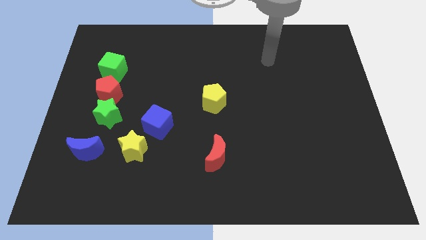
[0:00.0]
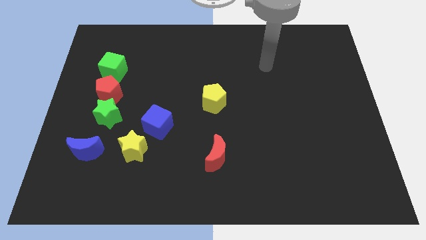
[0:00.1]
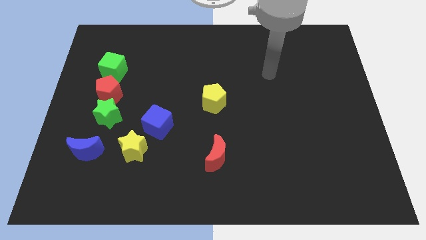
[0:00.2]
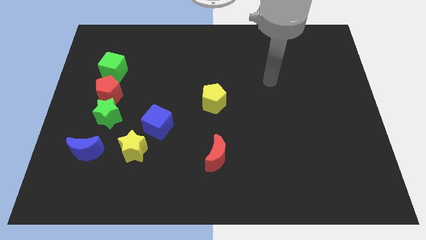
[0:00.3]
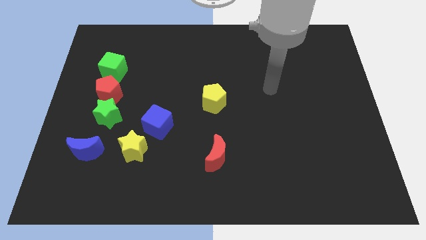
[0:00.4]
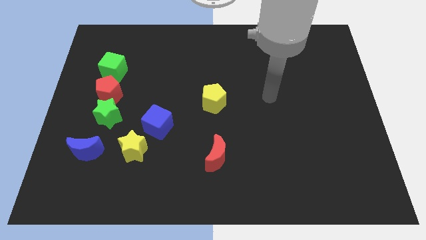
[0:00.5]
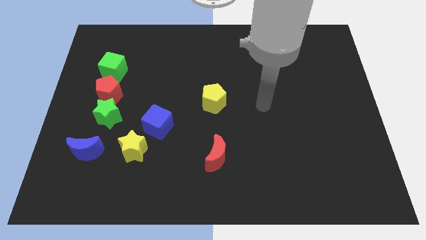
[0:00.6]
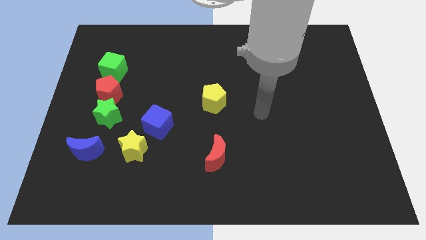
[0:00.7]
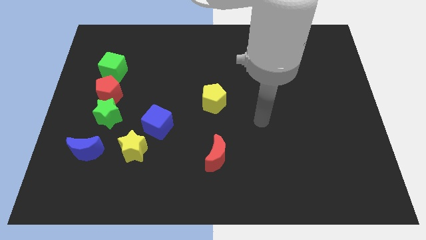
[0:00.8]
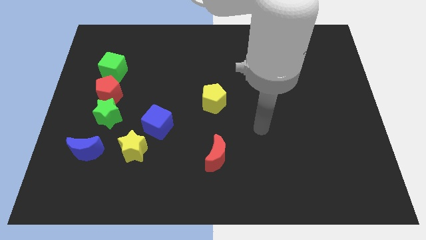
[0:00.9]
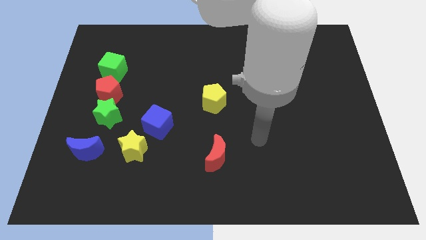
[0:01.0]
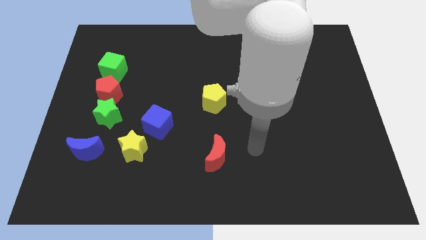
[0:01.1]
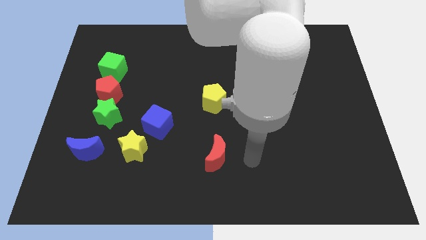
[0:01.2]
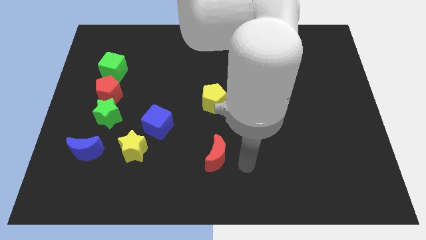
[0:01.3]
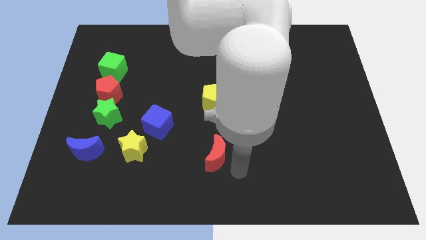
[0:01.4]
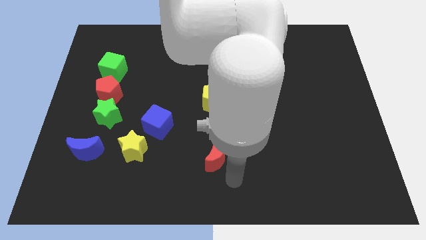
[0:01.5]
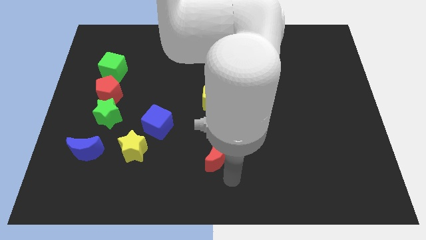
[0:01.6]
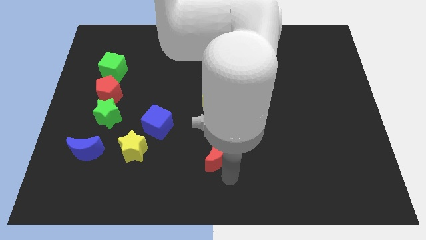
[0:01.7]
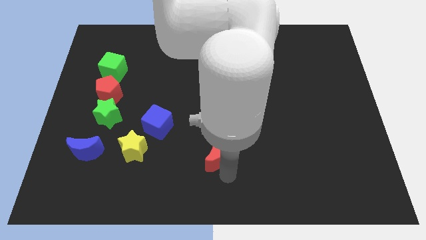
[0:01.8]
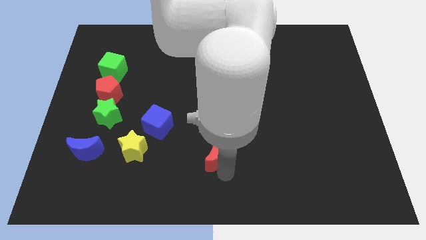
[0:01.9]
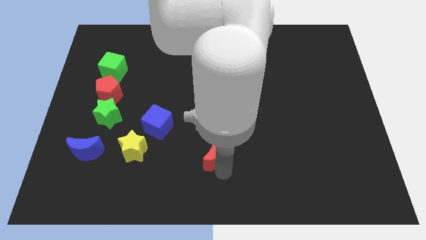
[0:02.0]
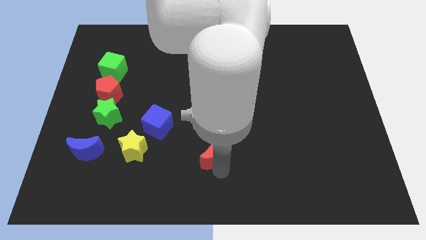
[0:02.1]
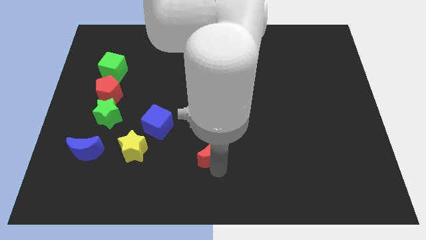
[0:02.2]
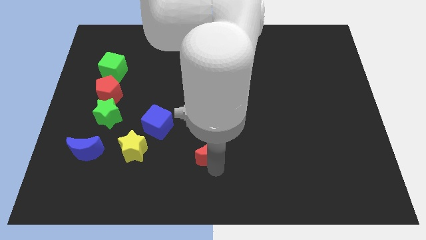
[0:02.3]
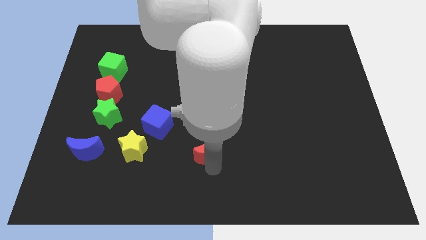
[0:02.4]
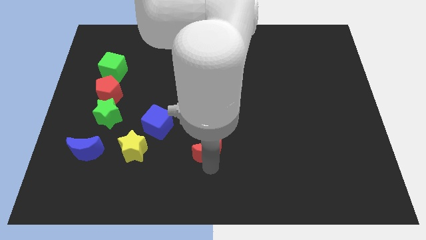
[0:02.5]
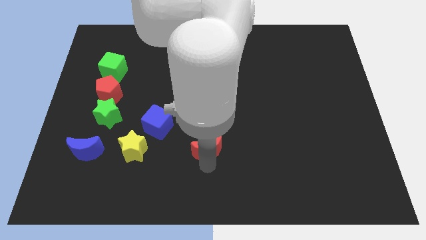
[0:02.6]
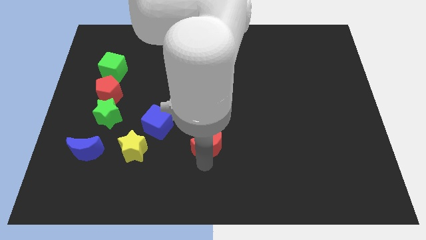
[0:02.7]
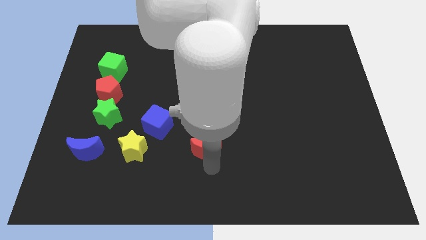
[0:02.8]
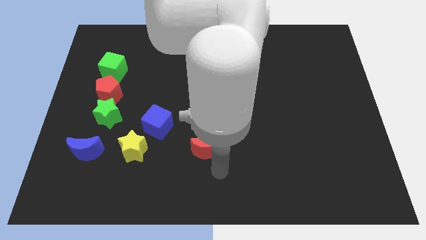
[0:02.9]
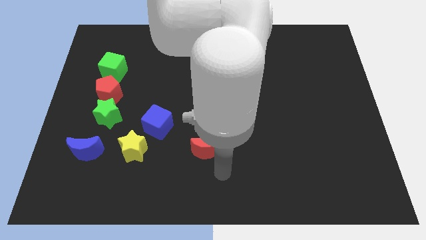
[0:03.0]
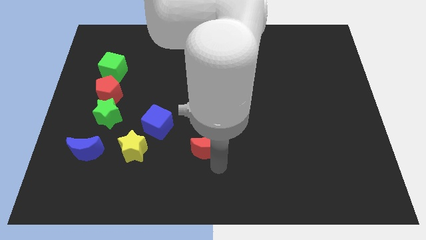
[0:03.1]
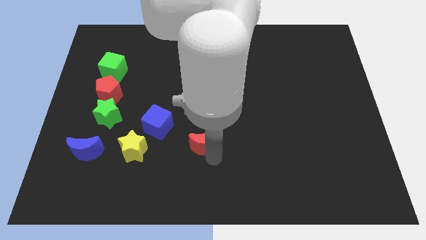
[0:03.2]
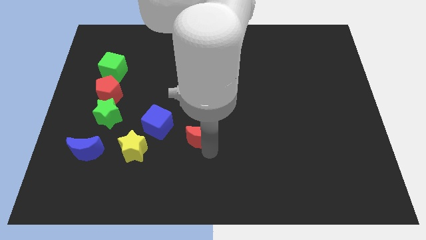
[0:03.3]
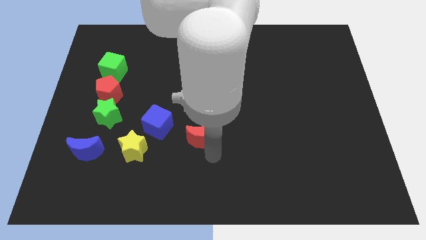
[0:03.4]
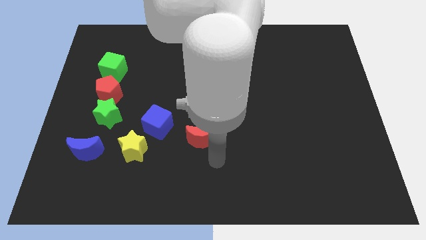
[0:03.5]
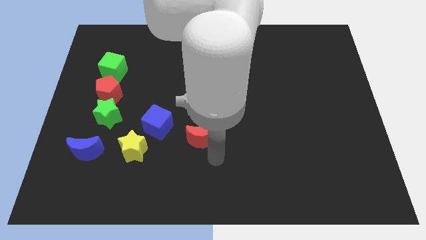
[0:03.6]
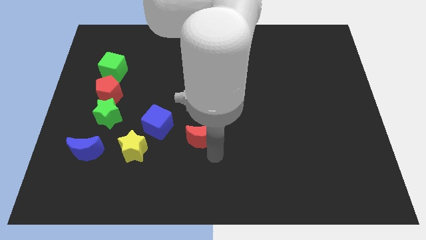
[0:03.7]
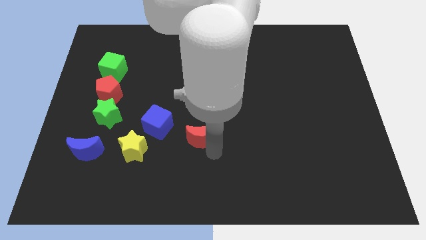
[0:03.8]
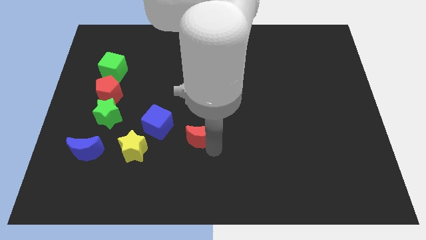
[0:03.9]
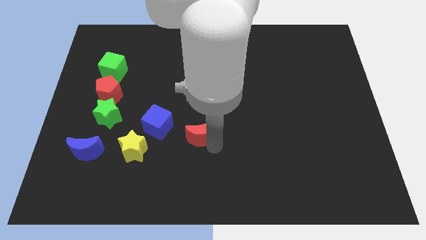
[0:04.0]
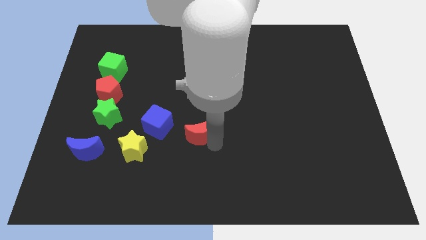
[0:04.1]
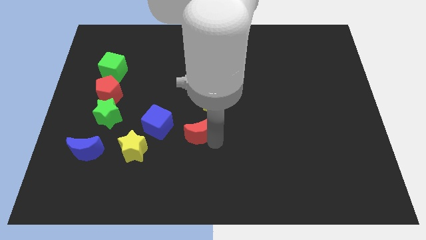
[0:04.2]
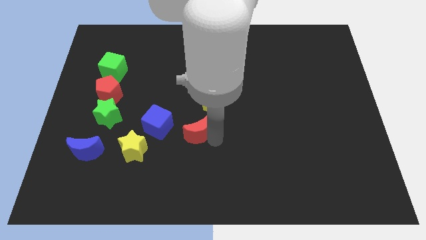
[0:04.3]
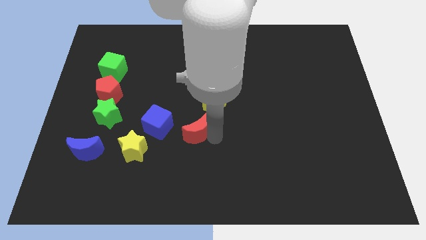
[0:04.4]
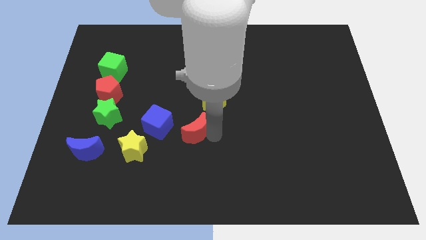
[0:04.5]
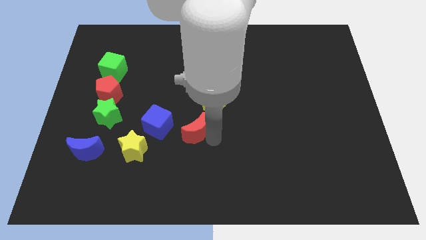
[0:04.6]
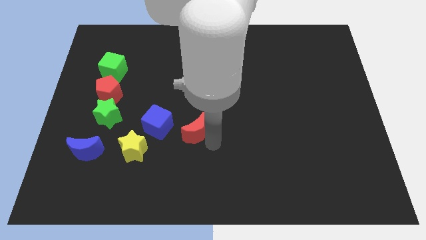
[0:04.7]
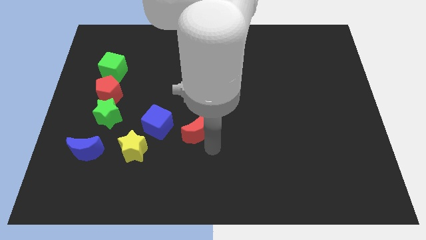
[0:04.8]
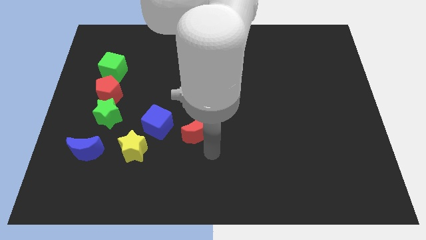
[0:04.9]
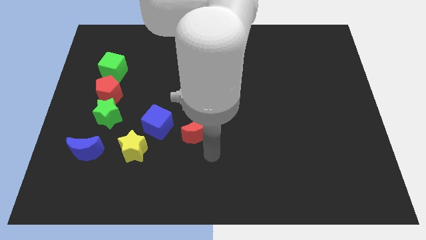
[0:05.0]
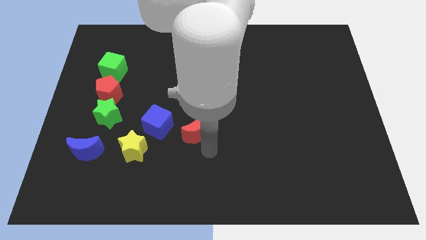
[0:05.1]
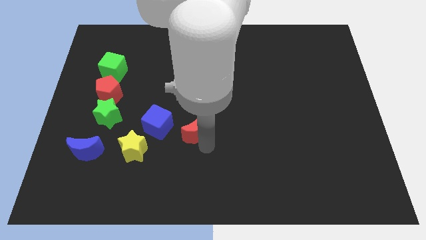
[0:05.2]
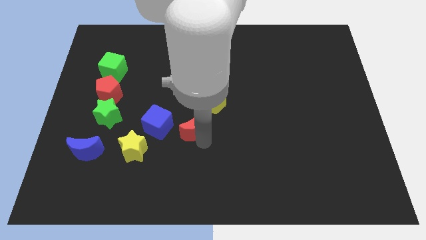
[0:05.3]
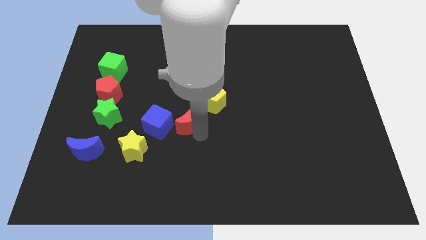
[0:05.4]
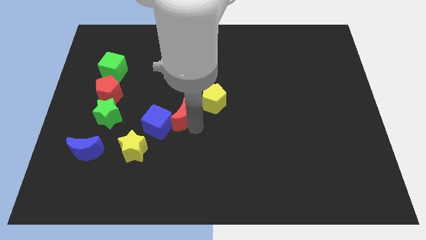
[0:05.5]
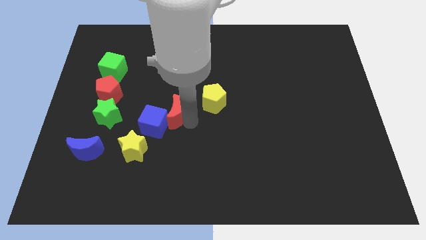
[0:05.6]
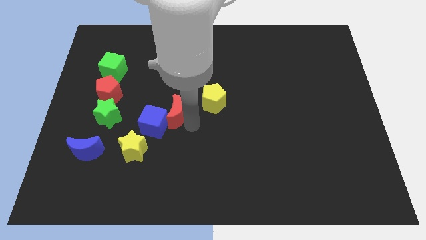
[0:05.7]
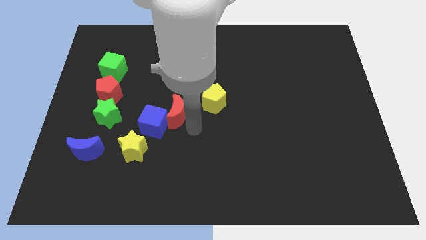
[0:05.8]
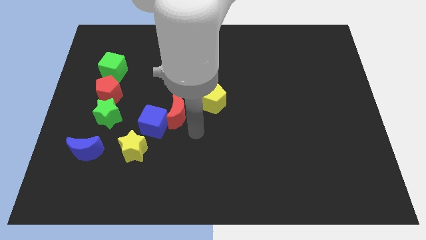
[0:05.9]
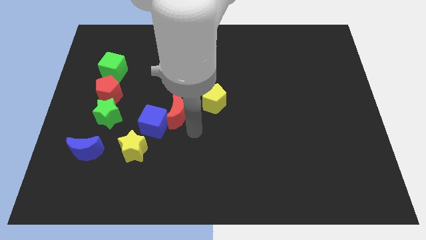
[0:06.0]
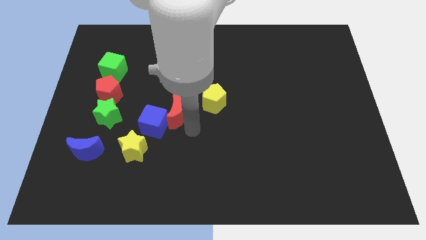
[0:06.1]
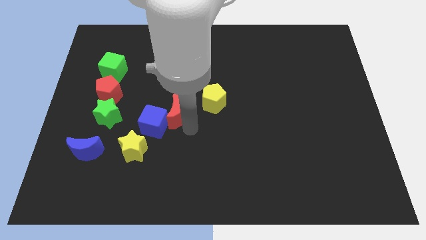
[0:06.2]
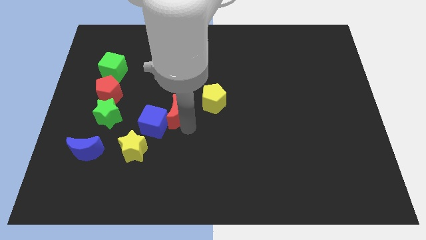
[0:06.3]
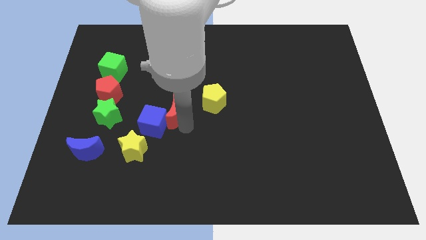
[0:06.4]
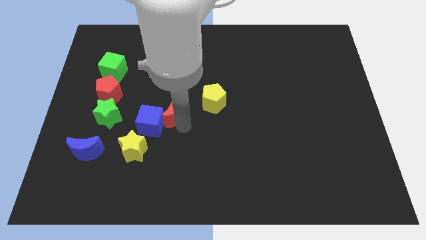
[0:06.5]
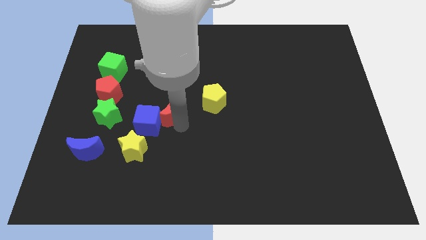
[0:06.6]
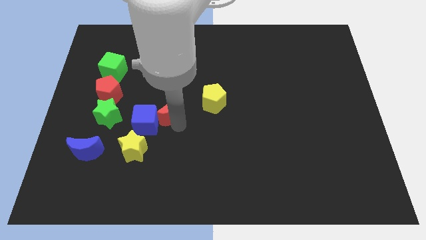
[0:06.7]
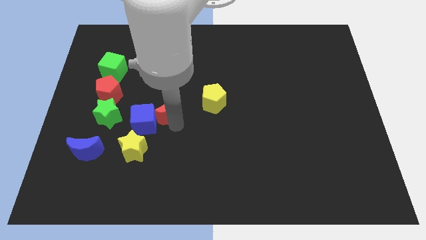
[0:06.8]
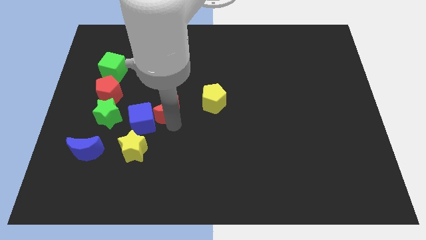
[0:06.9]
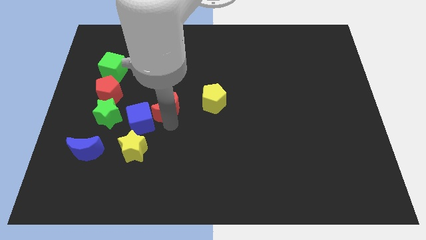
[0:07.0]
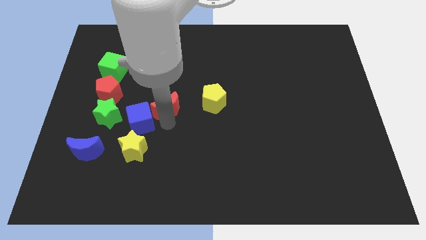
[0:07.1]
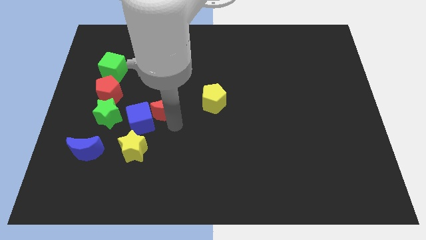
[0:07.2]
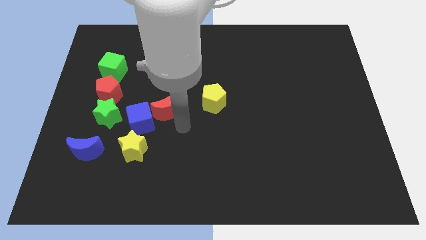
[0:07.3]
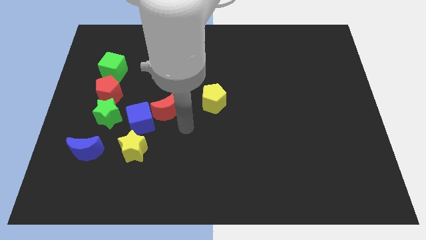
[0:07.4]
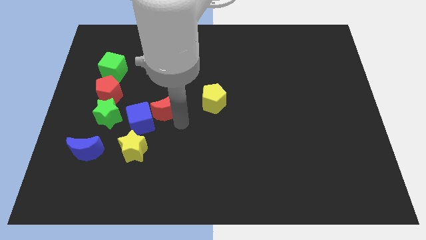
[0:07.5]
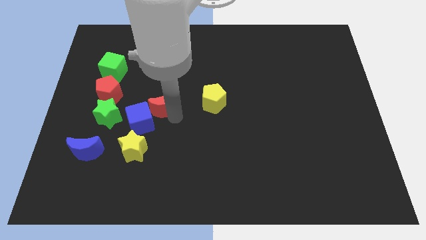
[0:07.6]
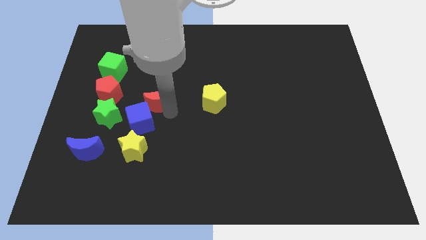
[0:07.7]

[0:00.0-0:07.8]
slide the red moon upwards and then to the left
